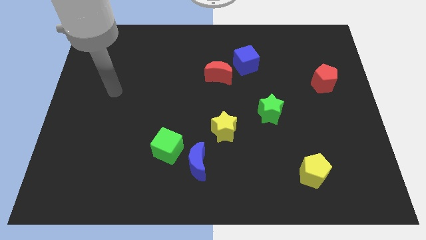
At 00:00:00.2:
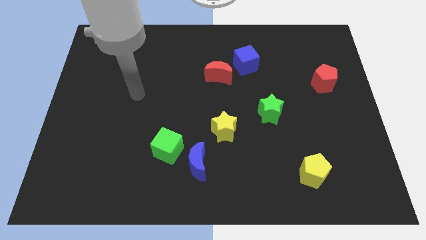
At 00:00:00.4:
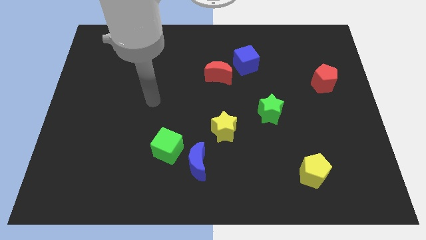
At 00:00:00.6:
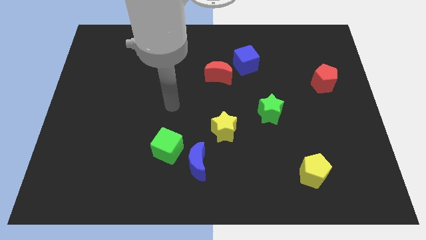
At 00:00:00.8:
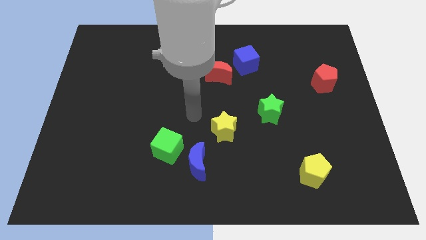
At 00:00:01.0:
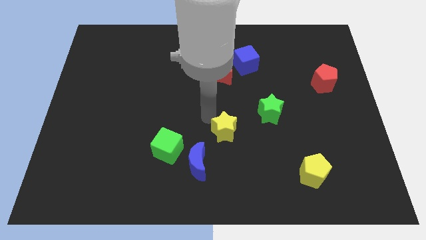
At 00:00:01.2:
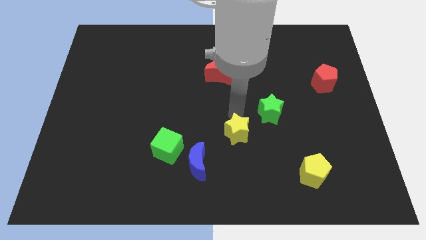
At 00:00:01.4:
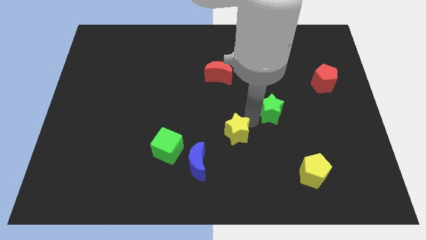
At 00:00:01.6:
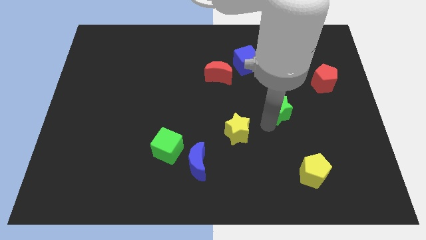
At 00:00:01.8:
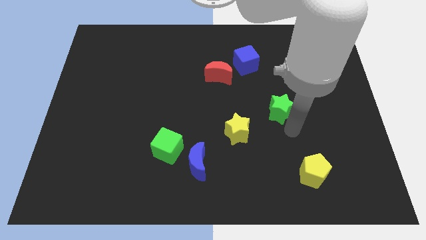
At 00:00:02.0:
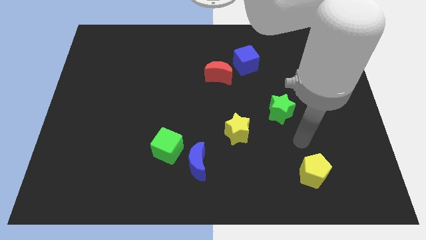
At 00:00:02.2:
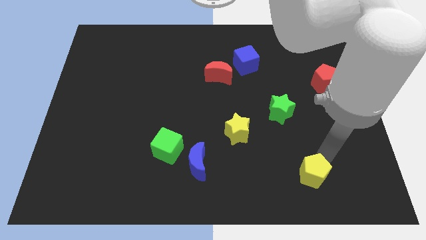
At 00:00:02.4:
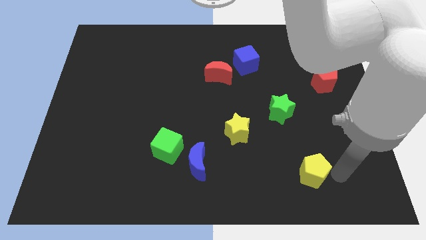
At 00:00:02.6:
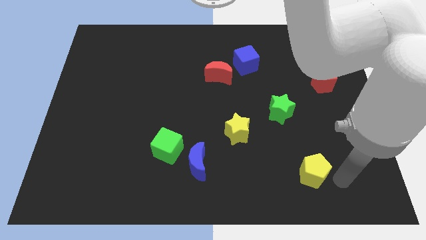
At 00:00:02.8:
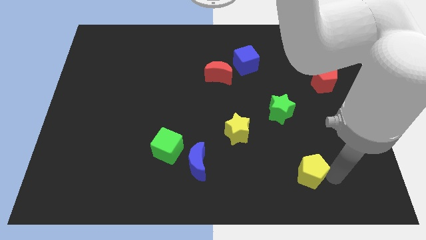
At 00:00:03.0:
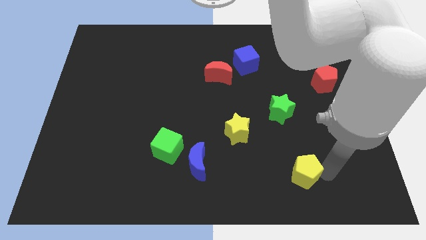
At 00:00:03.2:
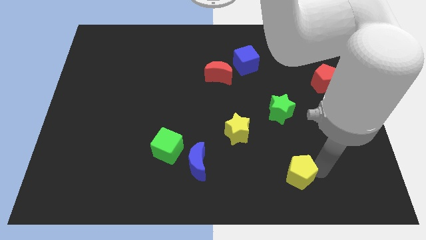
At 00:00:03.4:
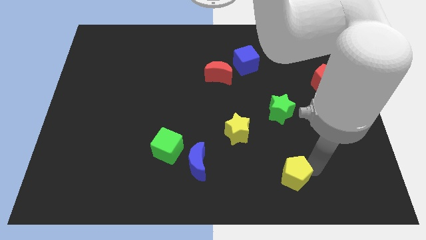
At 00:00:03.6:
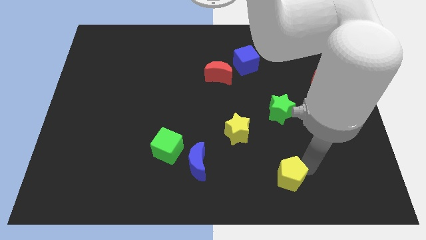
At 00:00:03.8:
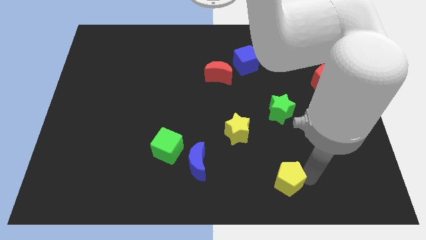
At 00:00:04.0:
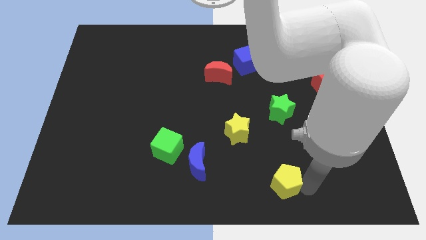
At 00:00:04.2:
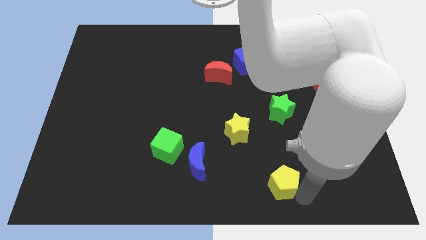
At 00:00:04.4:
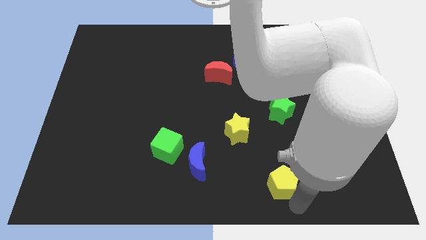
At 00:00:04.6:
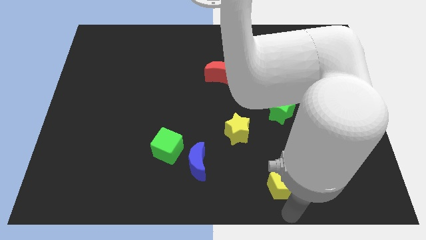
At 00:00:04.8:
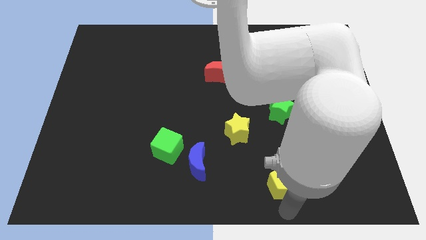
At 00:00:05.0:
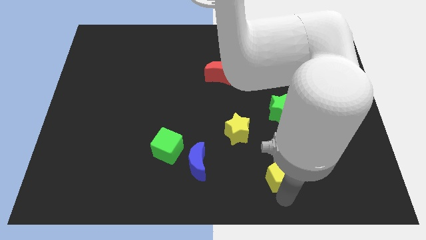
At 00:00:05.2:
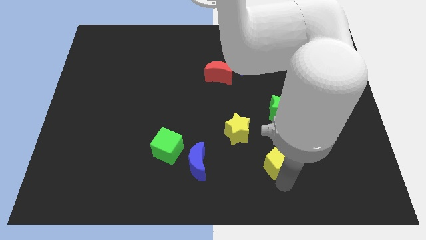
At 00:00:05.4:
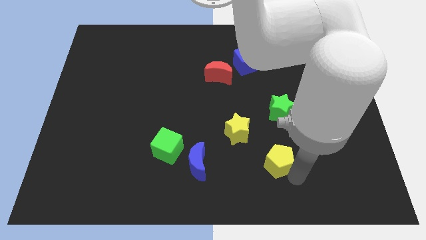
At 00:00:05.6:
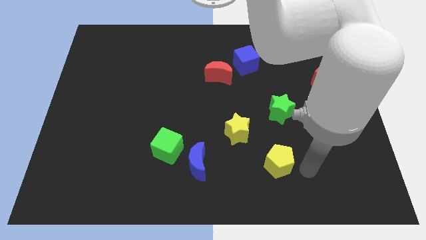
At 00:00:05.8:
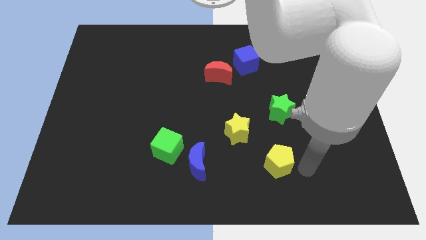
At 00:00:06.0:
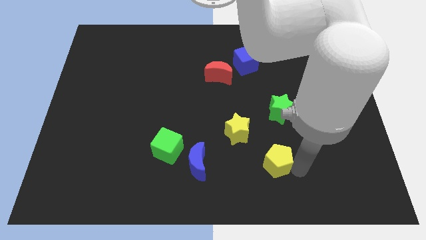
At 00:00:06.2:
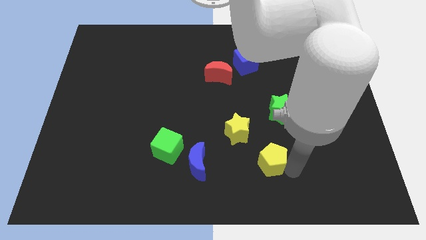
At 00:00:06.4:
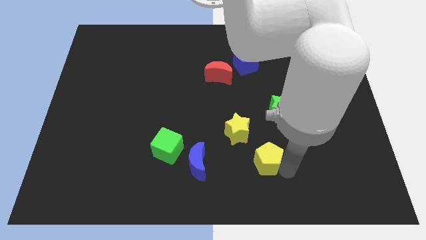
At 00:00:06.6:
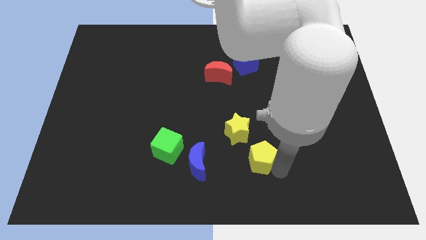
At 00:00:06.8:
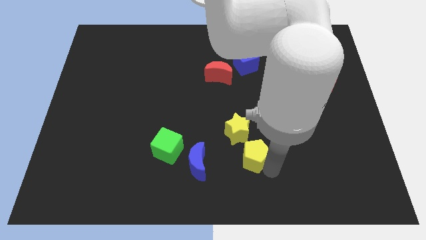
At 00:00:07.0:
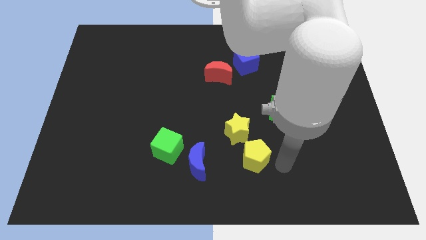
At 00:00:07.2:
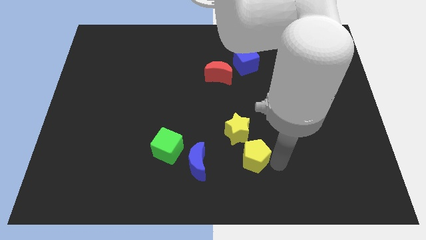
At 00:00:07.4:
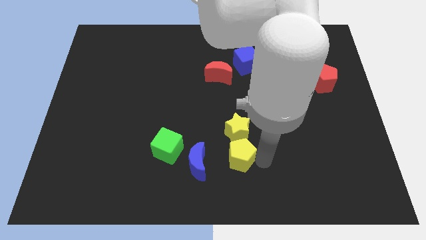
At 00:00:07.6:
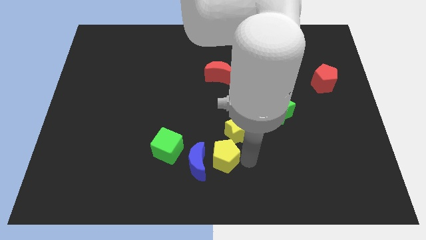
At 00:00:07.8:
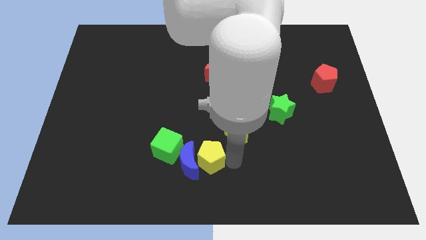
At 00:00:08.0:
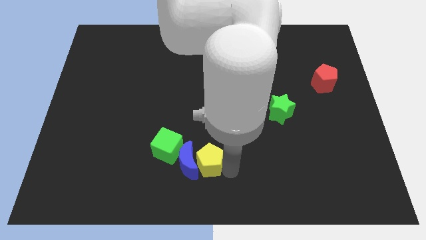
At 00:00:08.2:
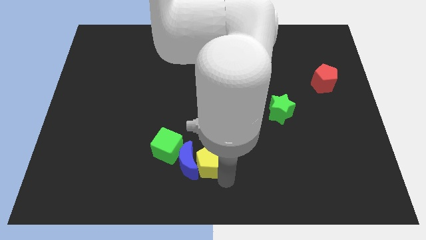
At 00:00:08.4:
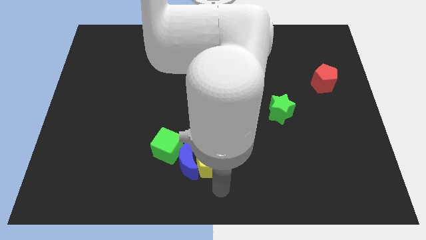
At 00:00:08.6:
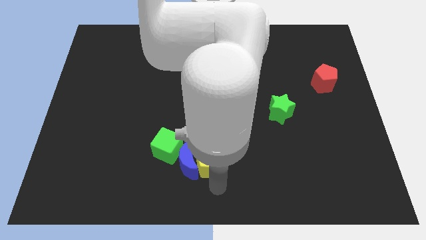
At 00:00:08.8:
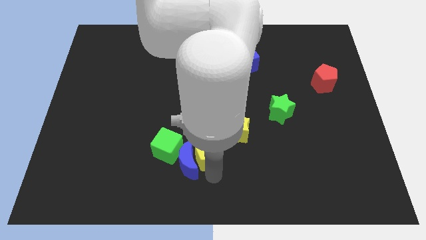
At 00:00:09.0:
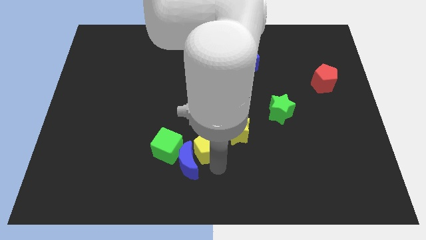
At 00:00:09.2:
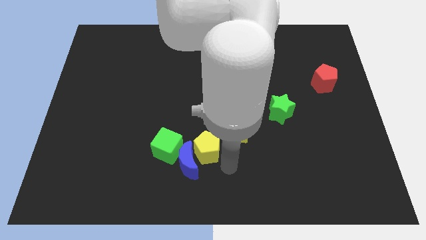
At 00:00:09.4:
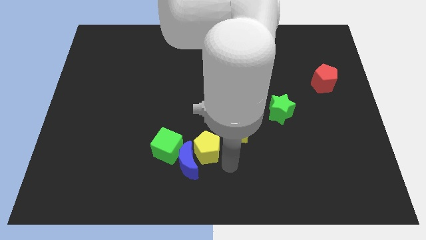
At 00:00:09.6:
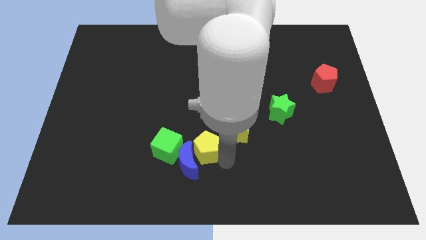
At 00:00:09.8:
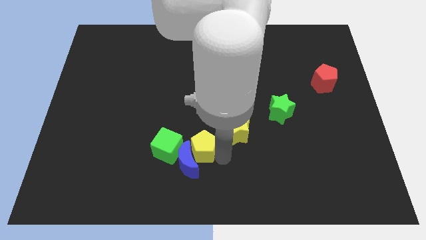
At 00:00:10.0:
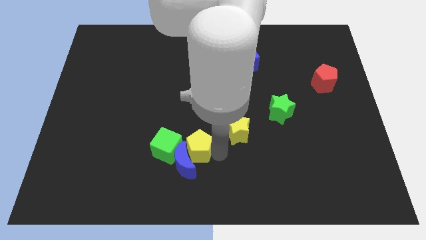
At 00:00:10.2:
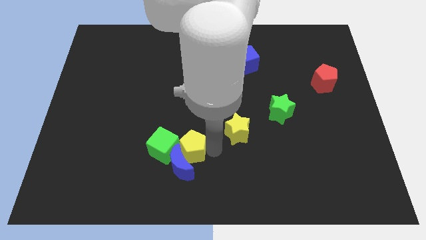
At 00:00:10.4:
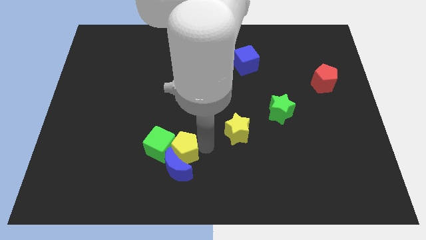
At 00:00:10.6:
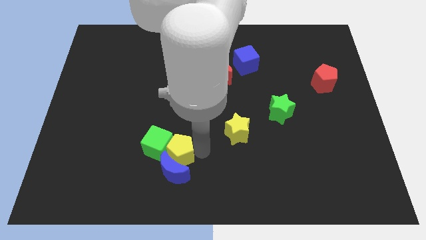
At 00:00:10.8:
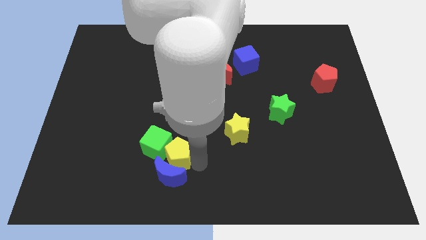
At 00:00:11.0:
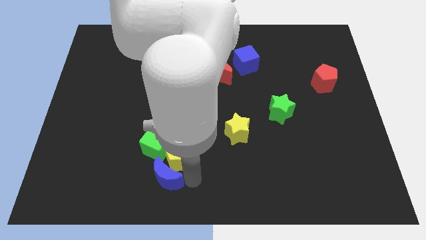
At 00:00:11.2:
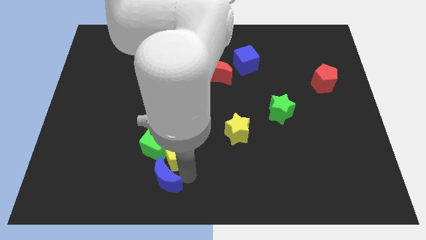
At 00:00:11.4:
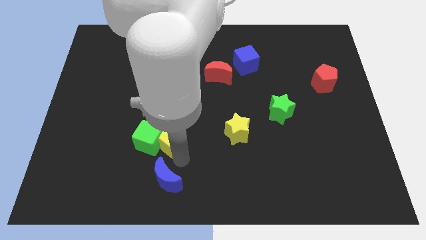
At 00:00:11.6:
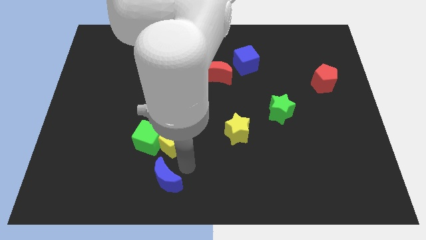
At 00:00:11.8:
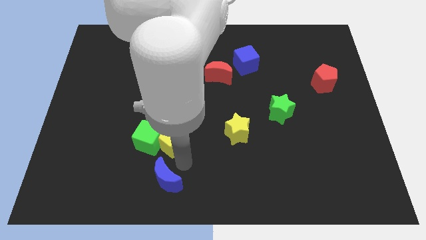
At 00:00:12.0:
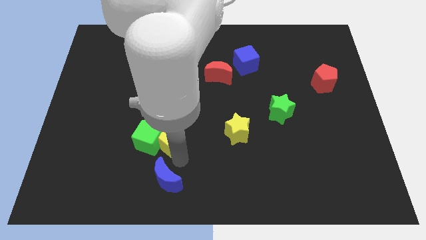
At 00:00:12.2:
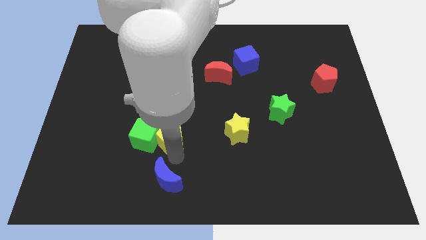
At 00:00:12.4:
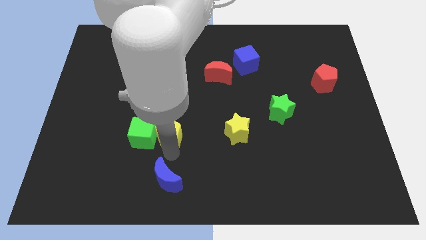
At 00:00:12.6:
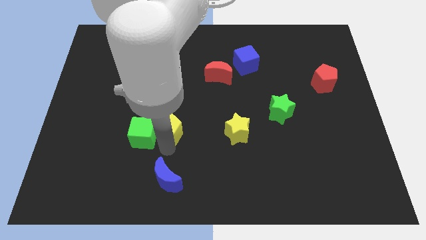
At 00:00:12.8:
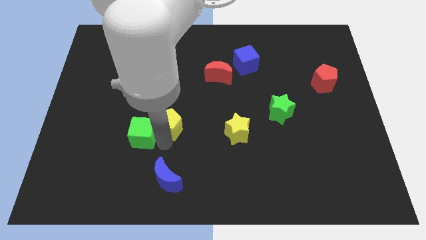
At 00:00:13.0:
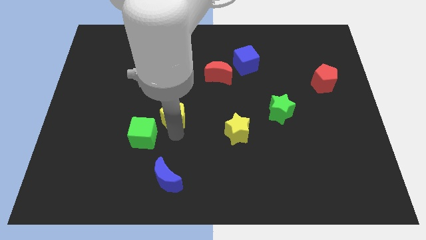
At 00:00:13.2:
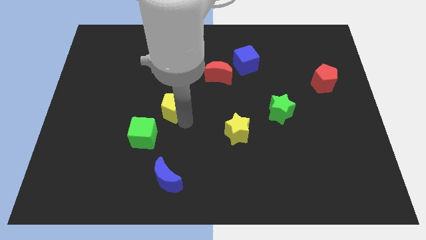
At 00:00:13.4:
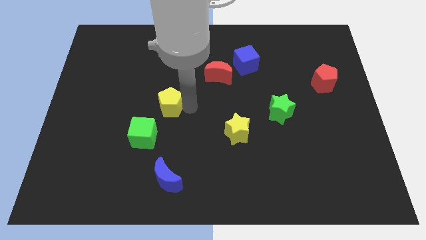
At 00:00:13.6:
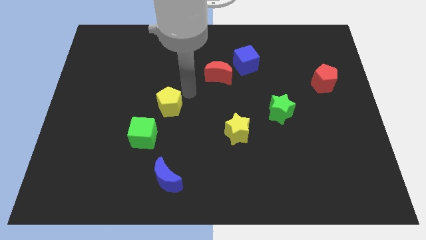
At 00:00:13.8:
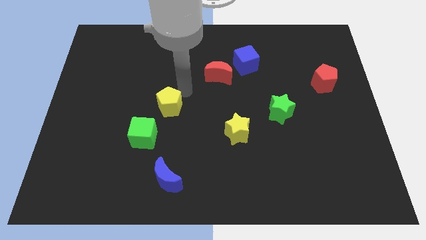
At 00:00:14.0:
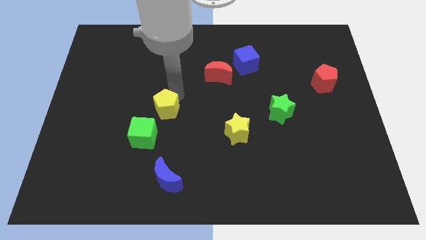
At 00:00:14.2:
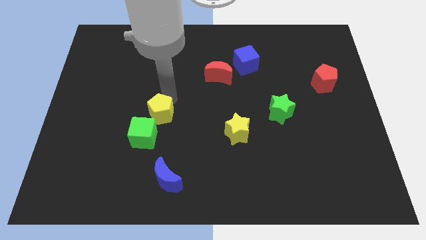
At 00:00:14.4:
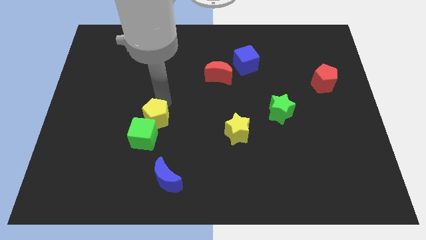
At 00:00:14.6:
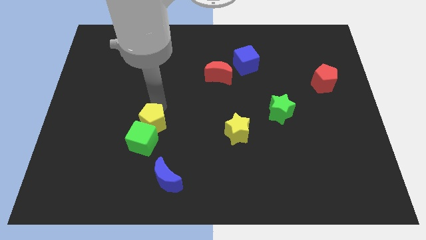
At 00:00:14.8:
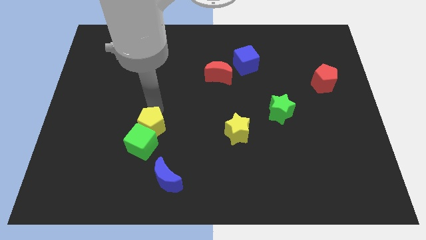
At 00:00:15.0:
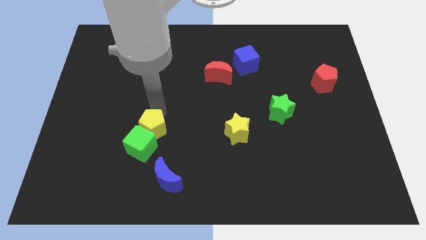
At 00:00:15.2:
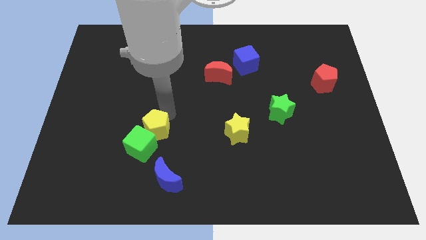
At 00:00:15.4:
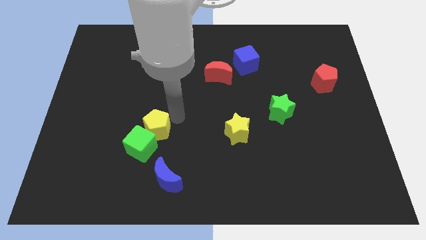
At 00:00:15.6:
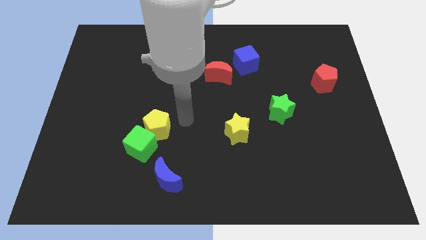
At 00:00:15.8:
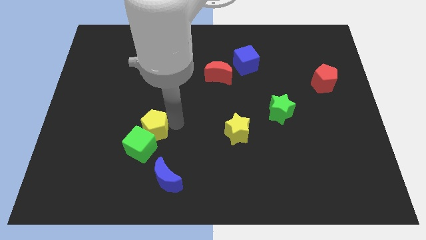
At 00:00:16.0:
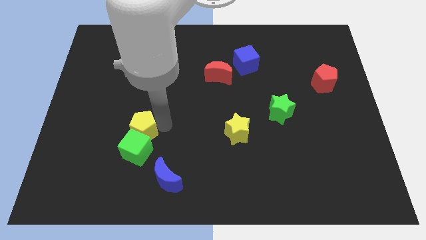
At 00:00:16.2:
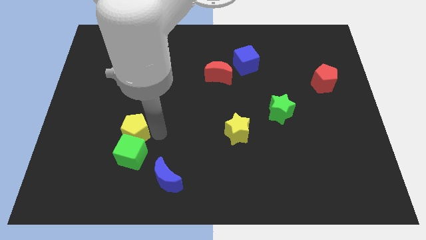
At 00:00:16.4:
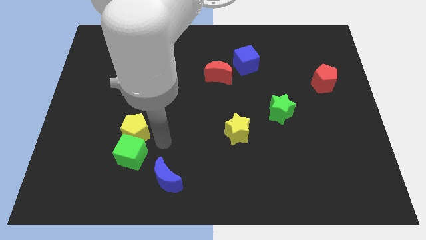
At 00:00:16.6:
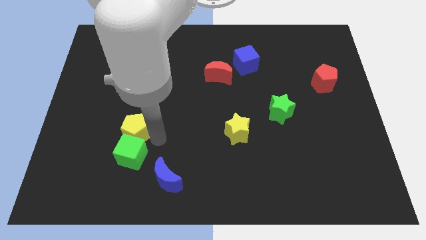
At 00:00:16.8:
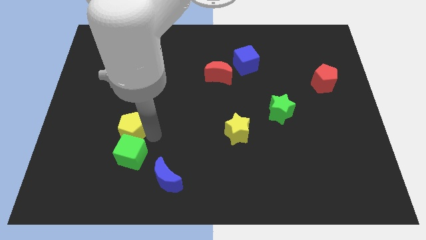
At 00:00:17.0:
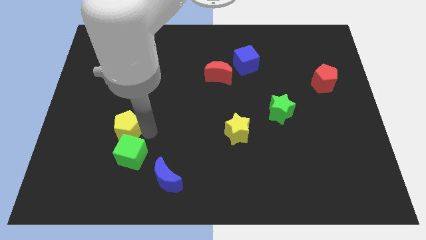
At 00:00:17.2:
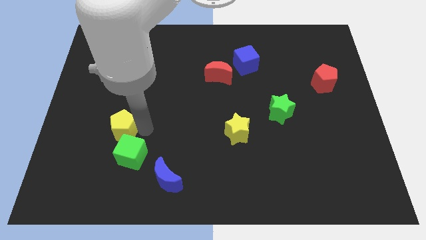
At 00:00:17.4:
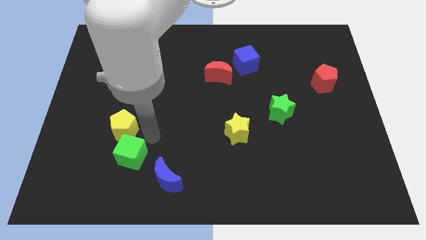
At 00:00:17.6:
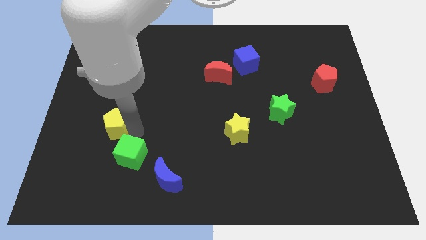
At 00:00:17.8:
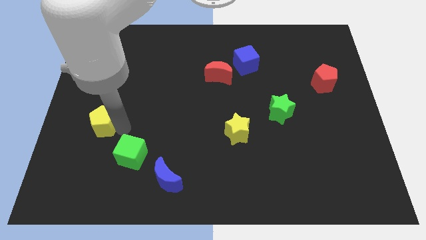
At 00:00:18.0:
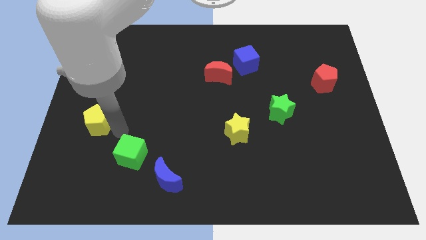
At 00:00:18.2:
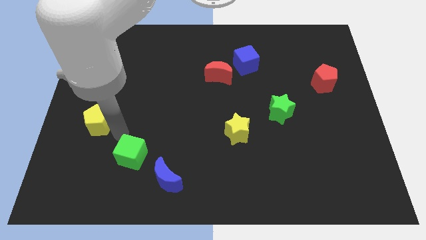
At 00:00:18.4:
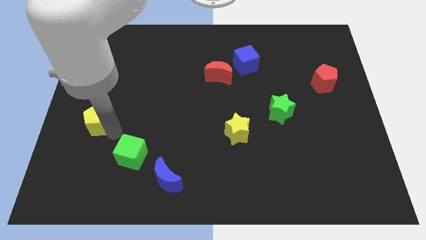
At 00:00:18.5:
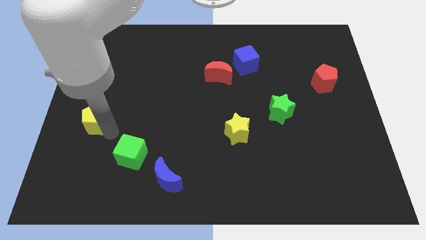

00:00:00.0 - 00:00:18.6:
slide the yellow pentagon to the center left
